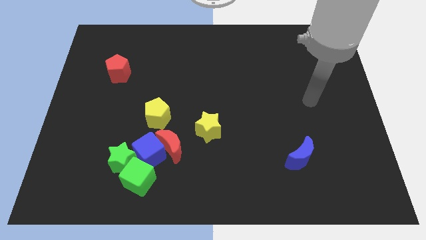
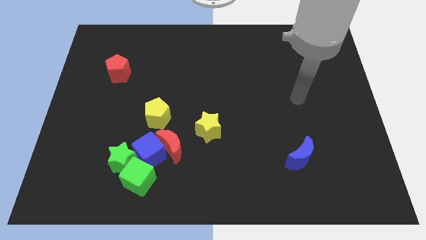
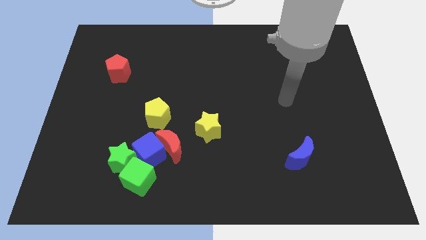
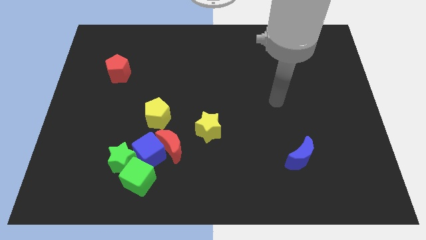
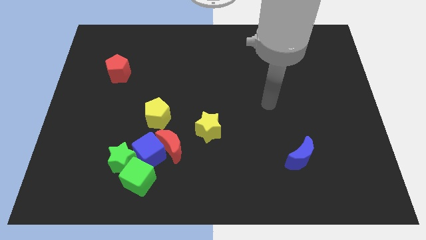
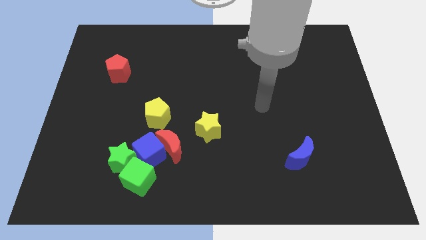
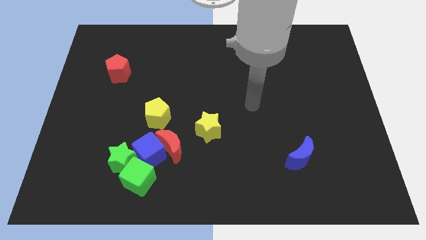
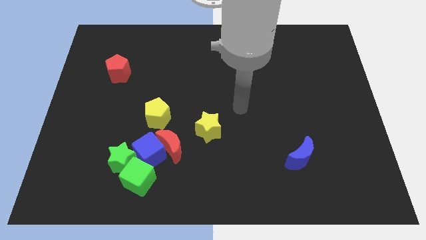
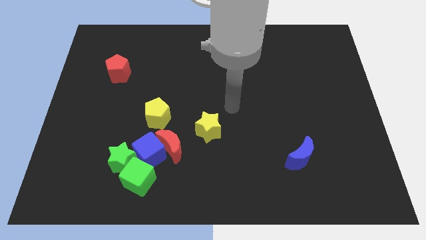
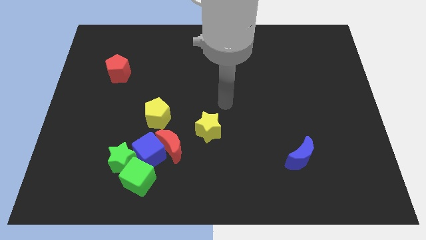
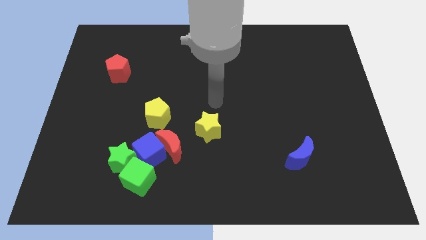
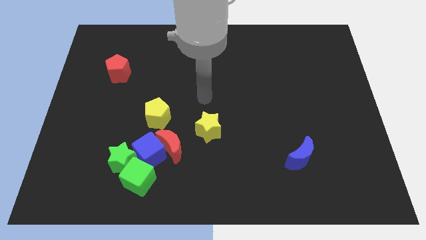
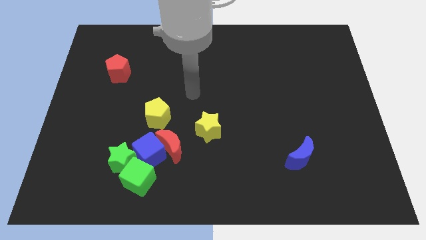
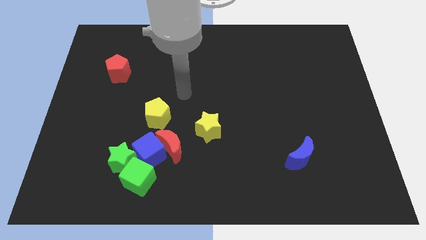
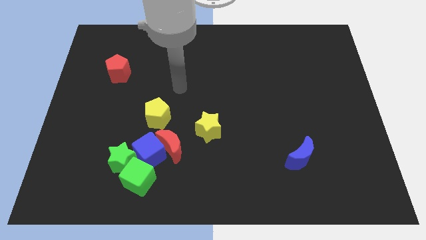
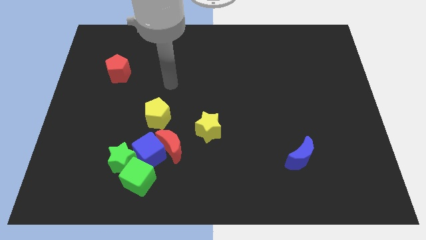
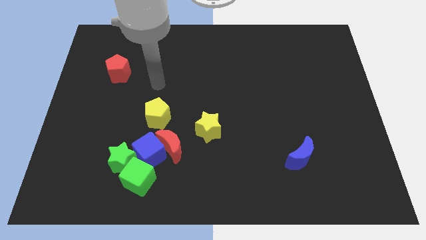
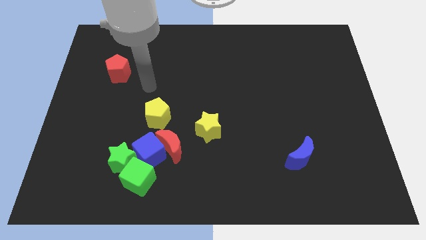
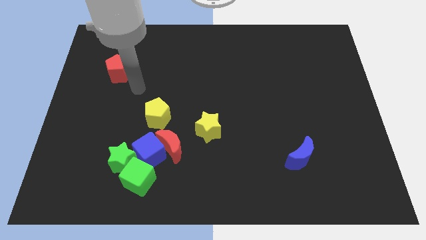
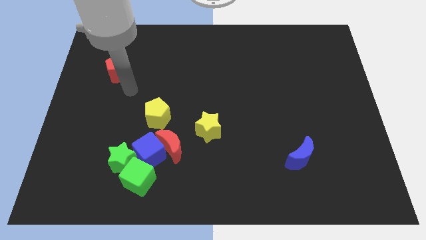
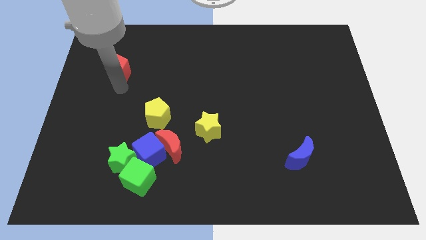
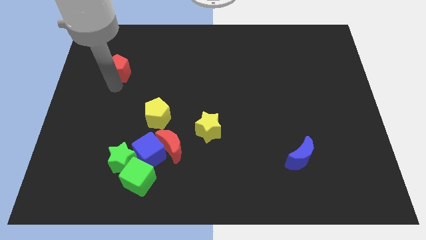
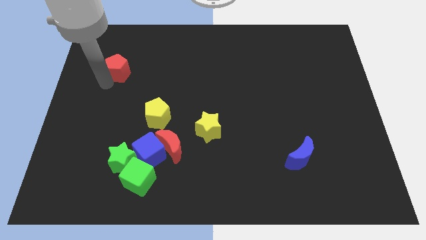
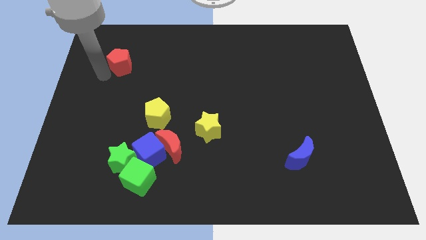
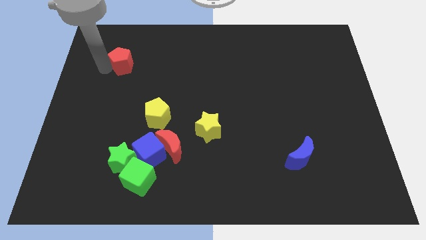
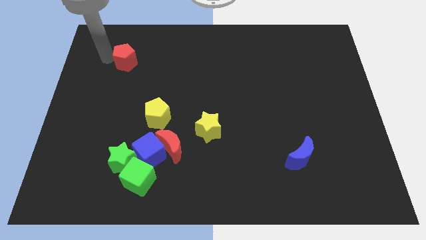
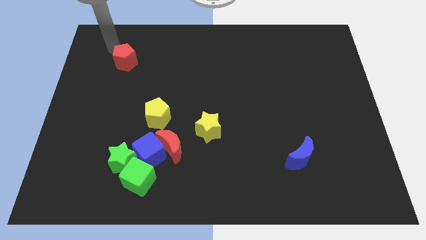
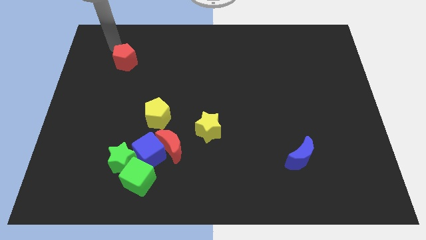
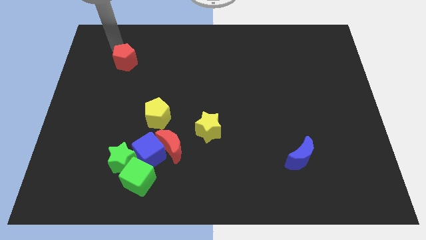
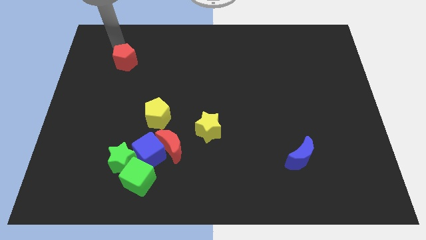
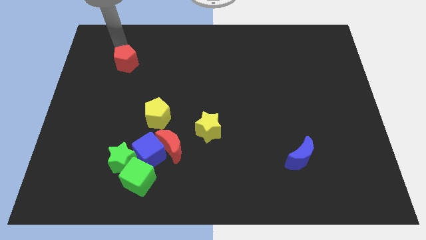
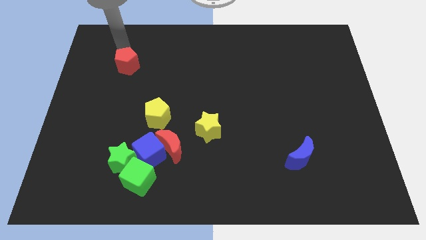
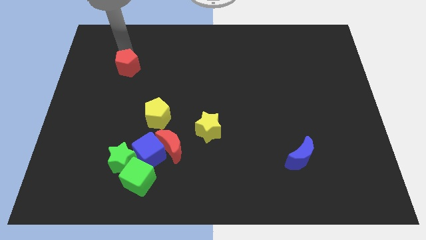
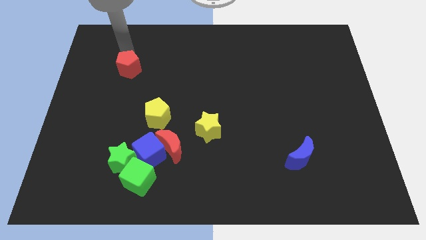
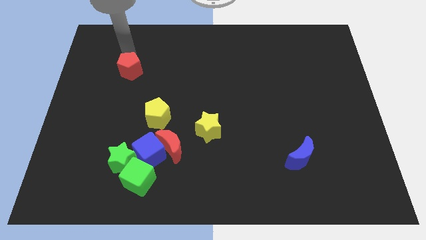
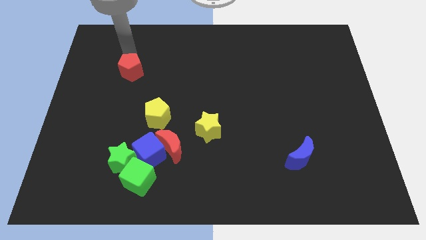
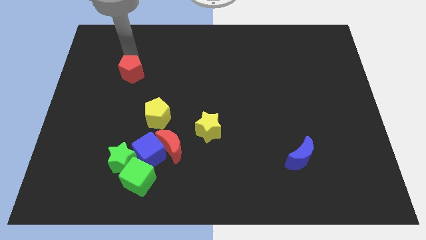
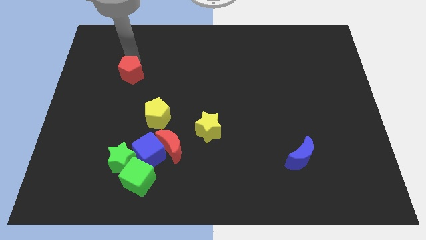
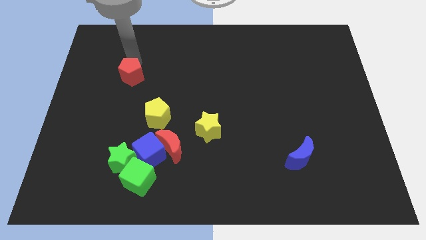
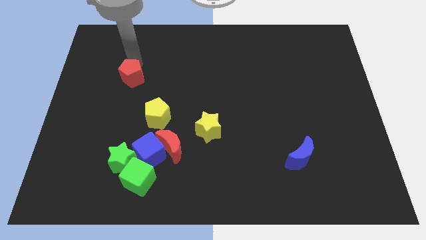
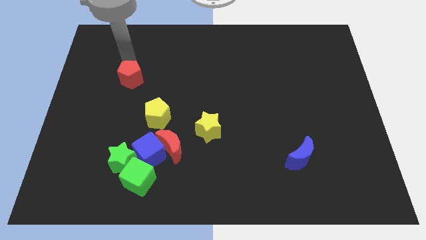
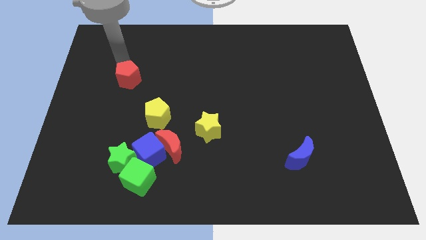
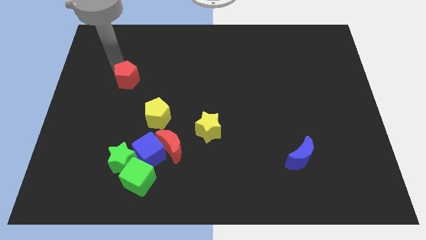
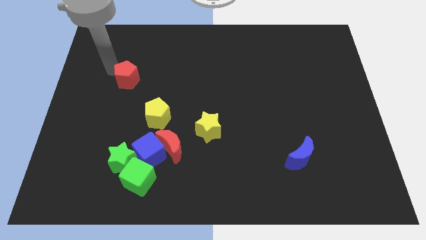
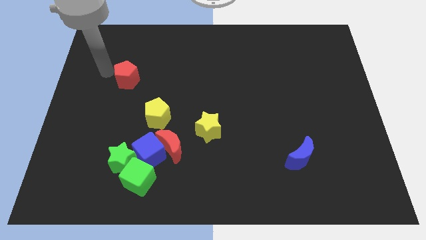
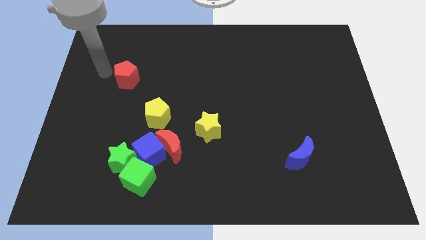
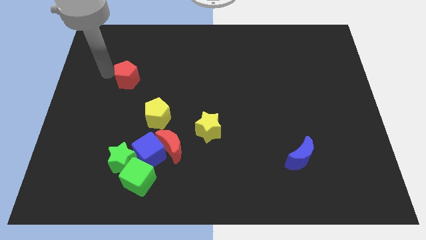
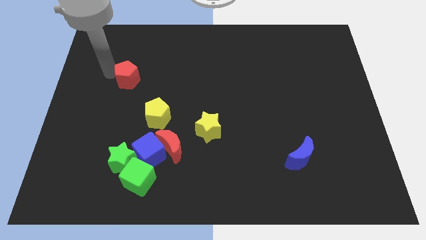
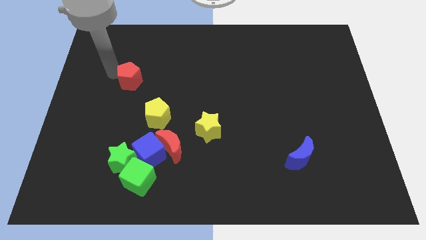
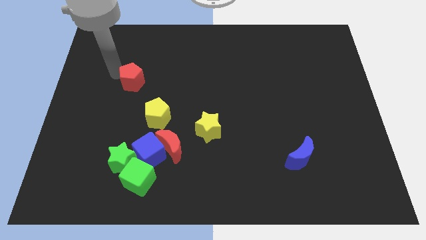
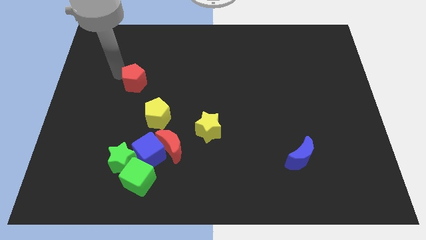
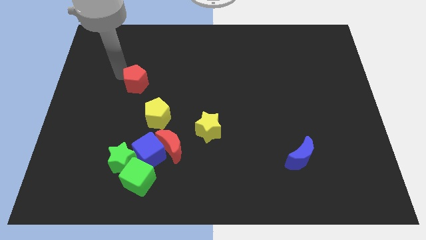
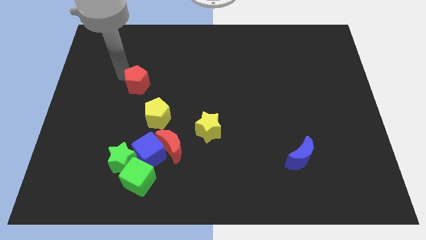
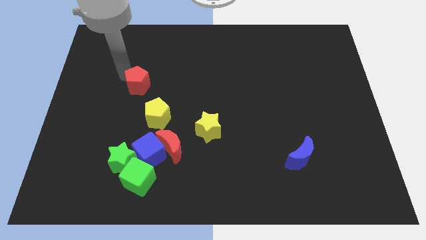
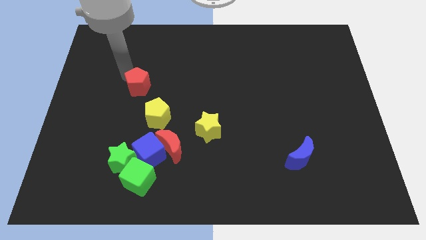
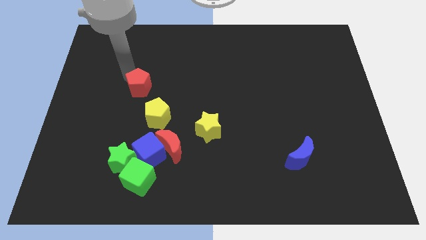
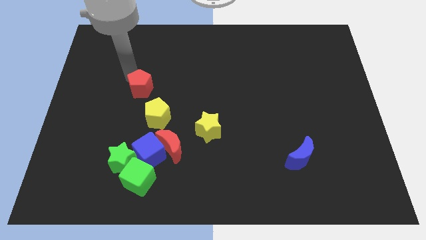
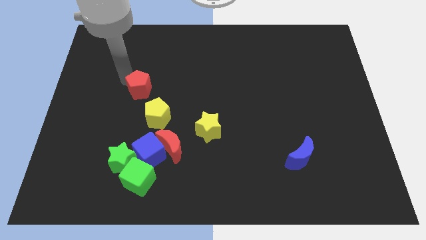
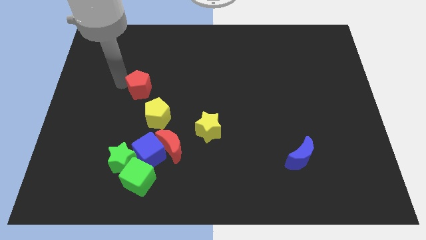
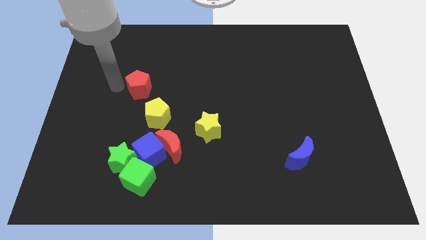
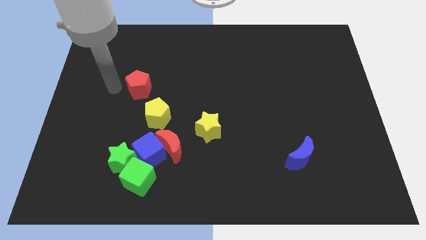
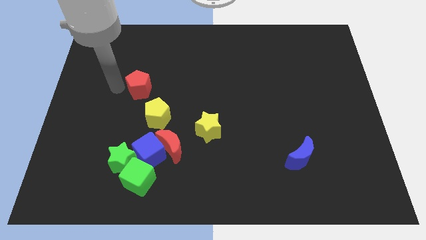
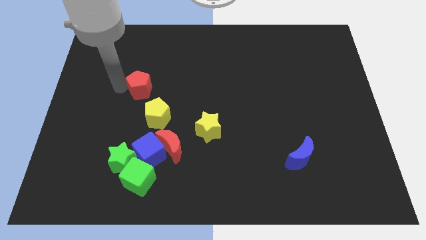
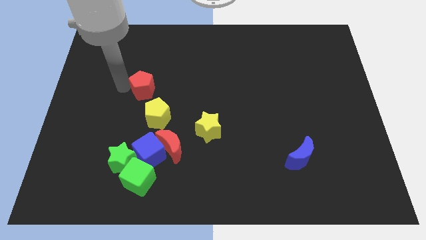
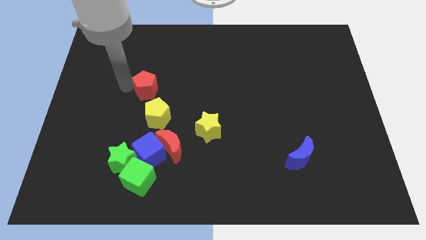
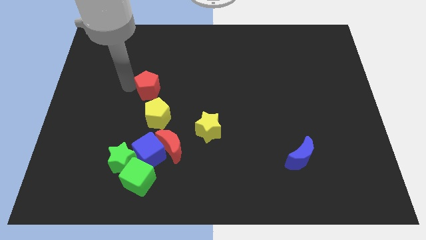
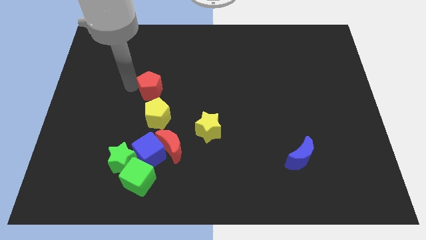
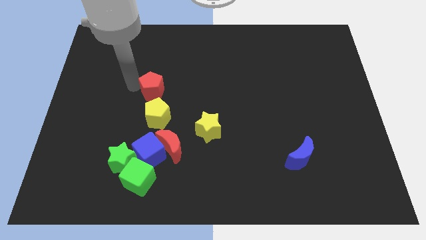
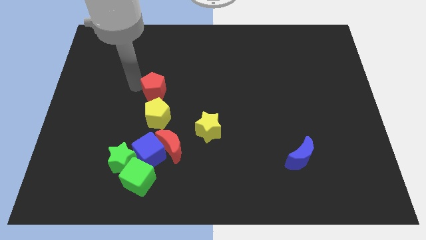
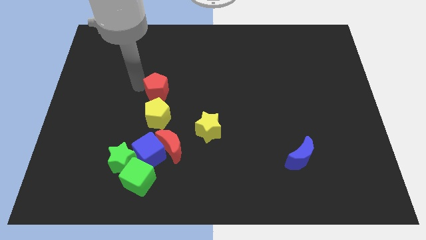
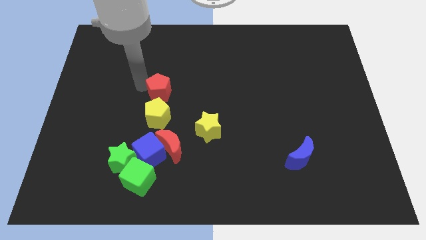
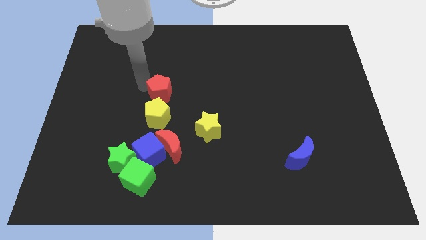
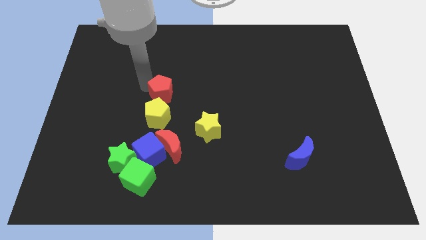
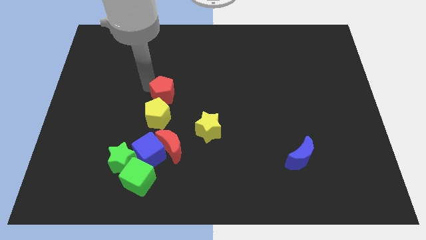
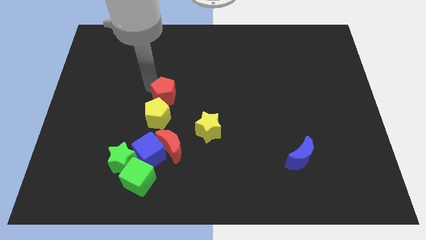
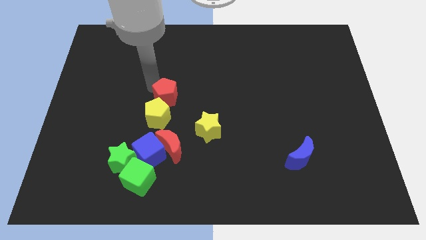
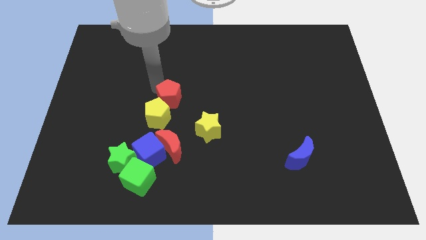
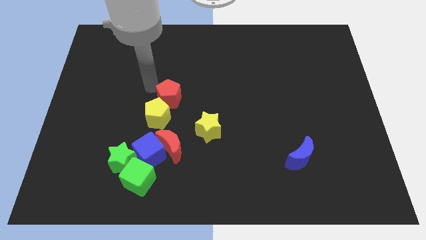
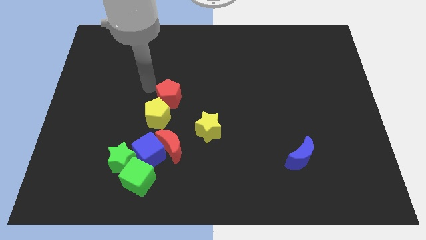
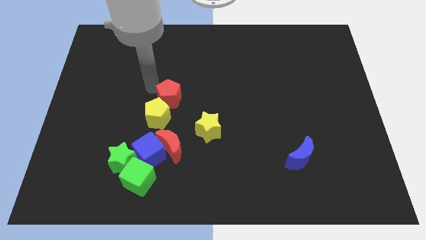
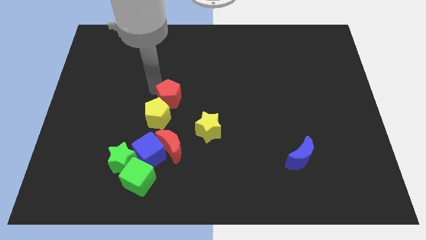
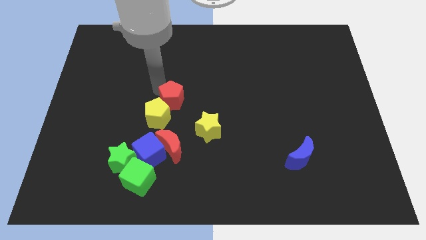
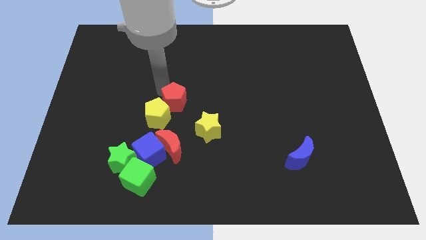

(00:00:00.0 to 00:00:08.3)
slide the red pentagon right of the yellow pentagon
